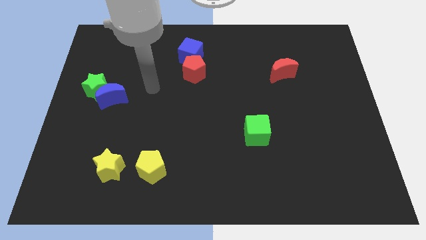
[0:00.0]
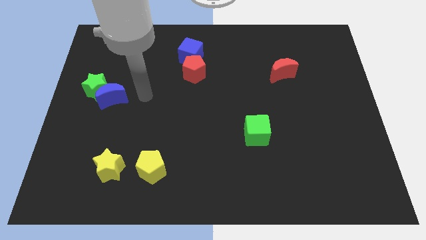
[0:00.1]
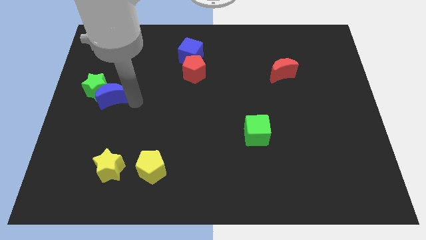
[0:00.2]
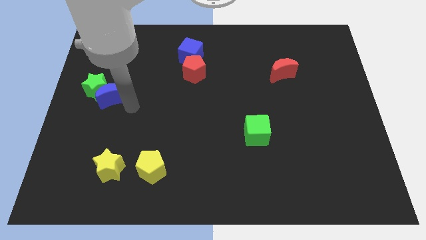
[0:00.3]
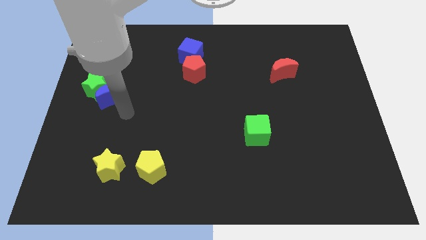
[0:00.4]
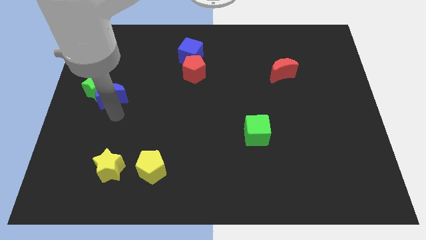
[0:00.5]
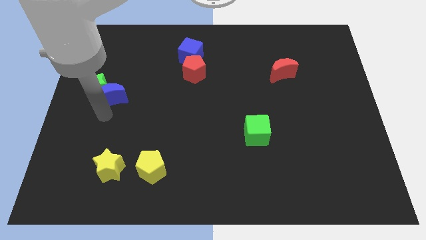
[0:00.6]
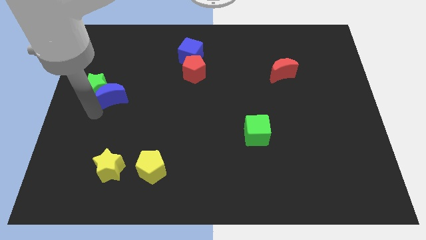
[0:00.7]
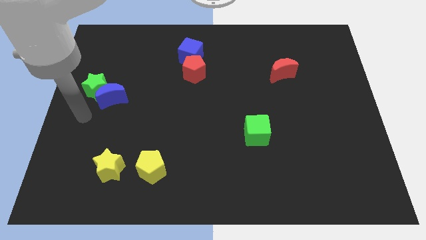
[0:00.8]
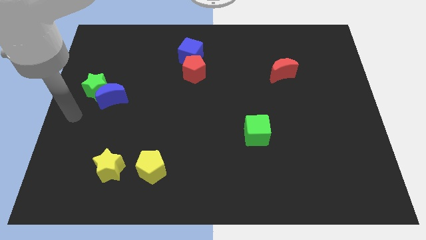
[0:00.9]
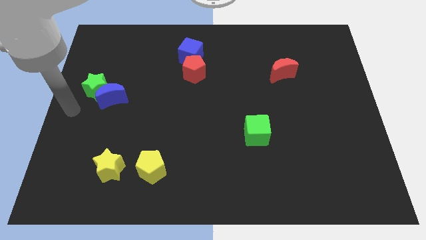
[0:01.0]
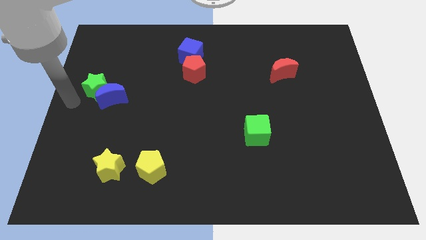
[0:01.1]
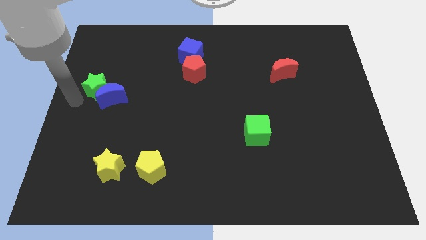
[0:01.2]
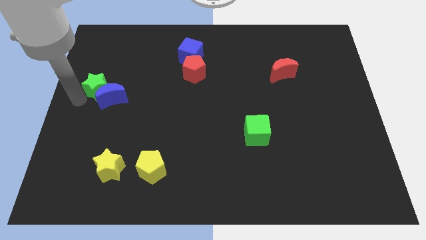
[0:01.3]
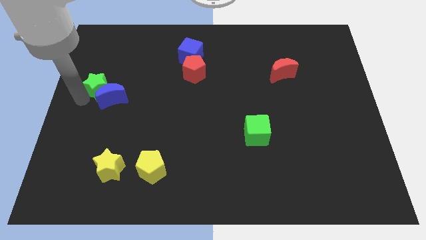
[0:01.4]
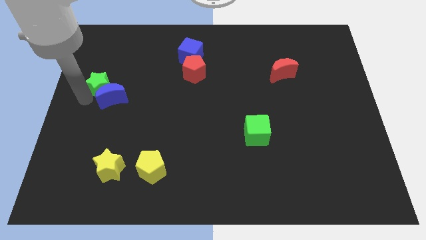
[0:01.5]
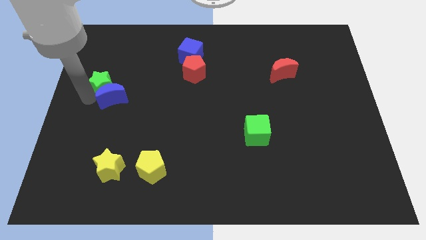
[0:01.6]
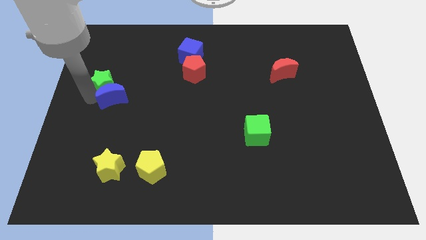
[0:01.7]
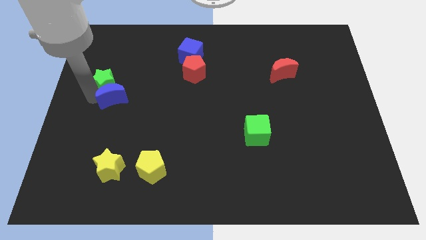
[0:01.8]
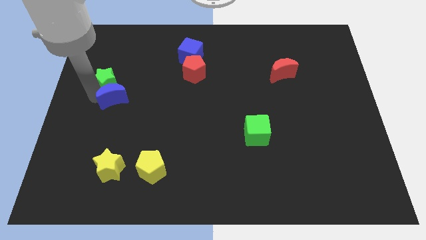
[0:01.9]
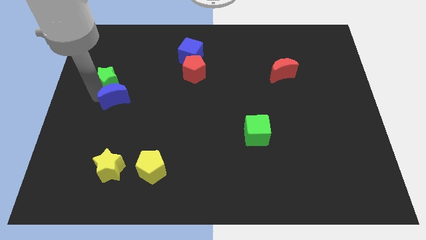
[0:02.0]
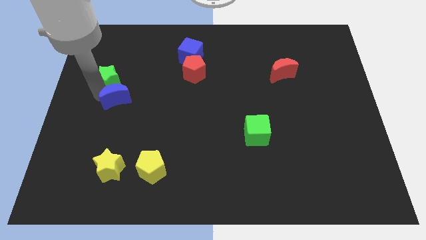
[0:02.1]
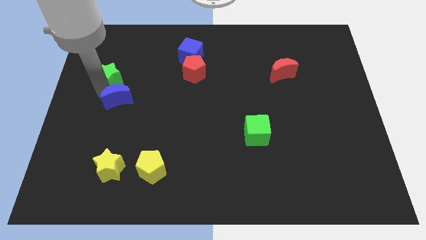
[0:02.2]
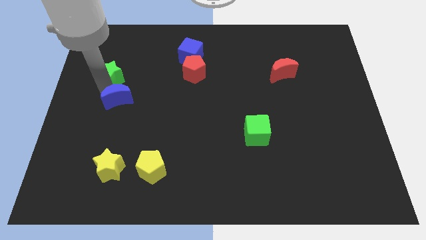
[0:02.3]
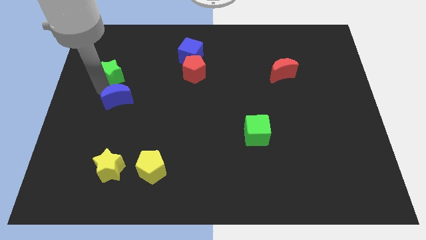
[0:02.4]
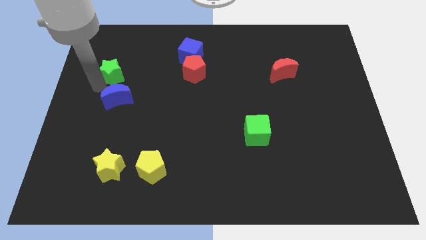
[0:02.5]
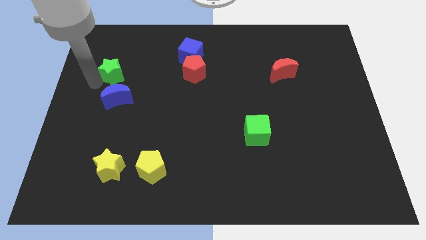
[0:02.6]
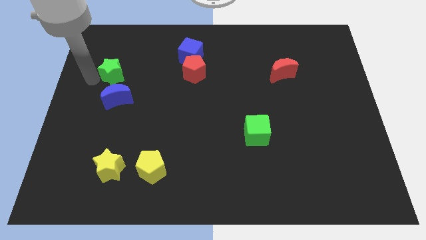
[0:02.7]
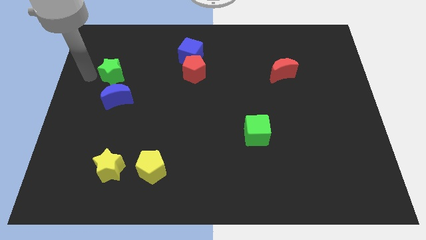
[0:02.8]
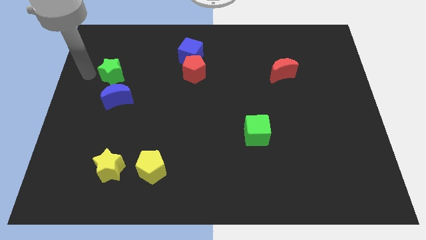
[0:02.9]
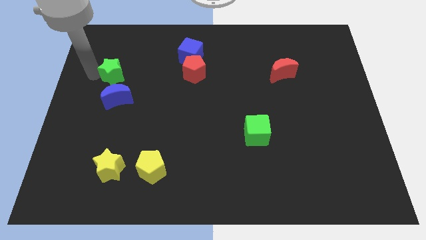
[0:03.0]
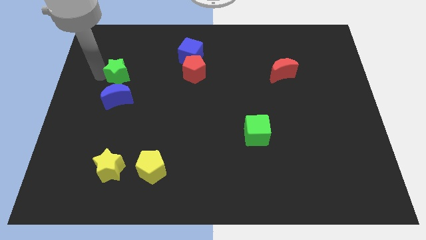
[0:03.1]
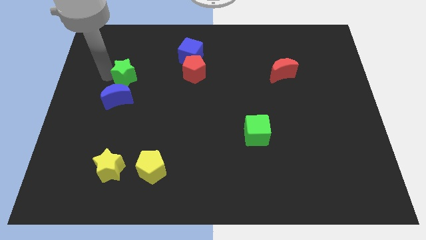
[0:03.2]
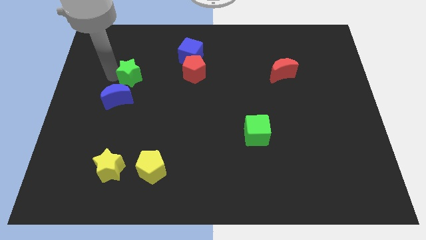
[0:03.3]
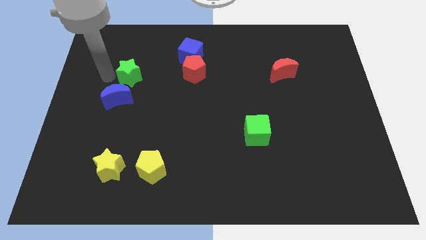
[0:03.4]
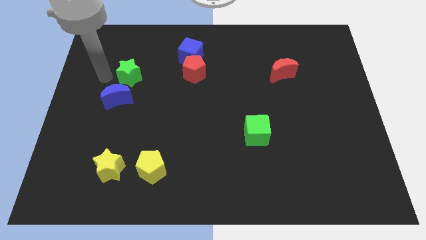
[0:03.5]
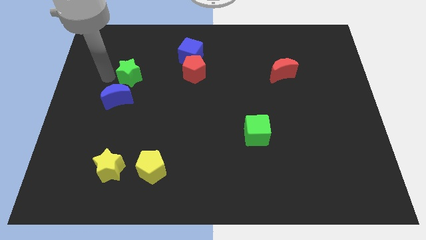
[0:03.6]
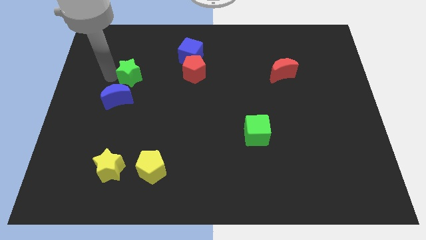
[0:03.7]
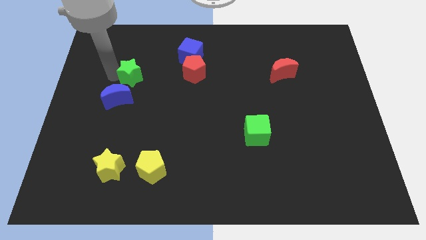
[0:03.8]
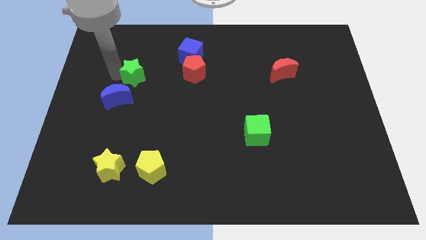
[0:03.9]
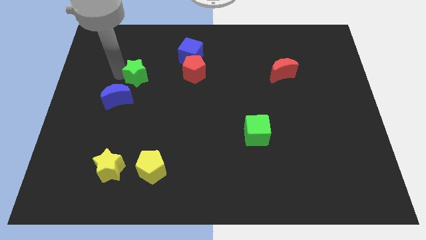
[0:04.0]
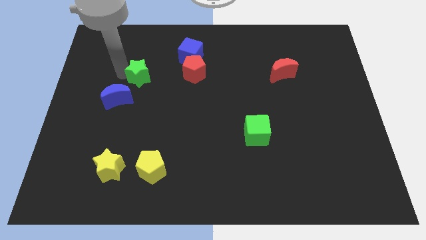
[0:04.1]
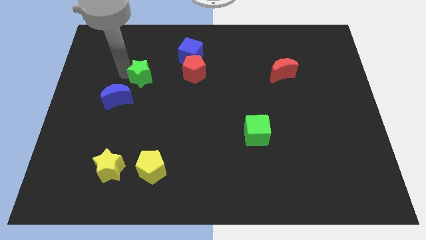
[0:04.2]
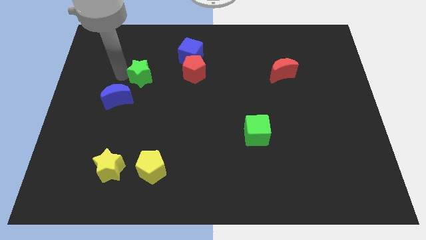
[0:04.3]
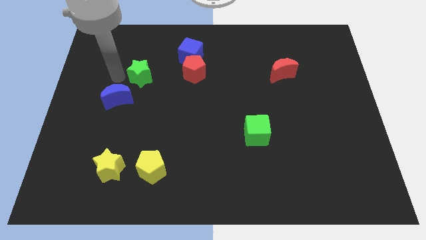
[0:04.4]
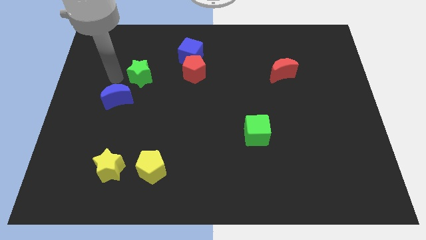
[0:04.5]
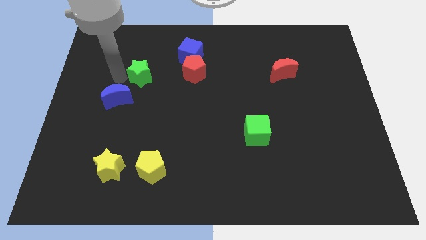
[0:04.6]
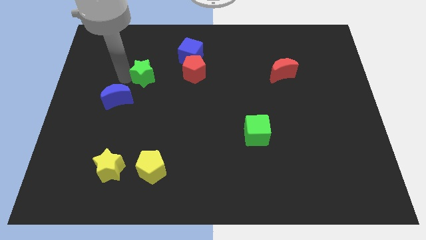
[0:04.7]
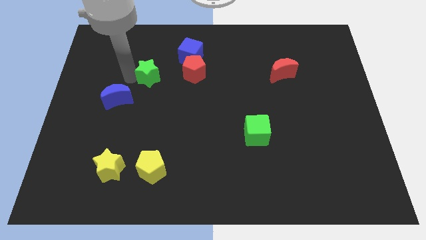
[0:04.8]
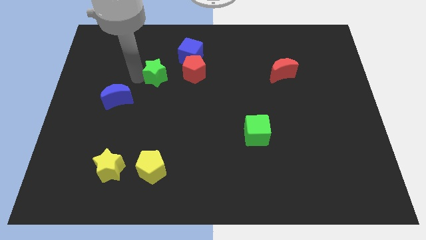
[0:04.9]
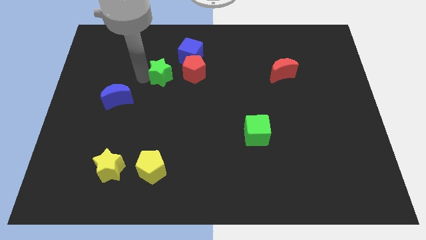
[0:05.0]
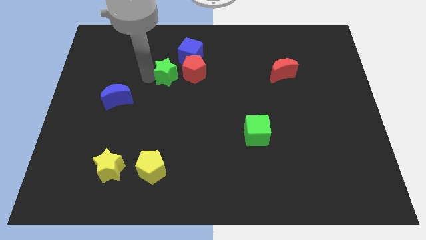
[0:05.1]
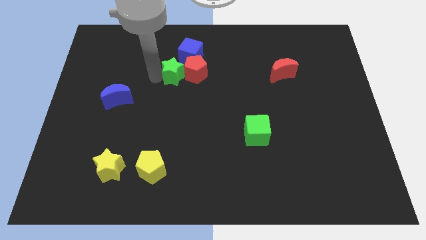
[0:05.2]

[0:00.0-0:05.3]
move the green star next to the red pentagon

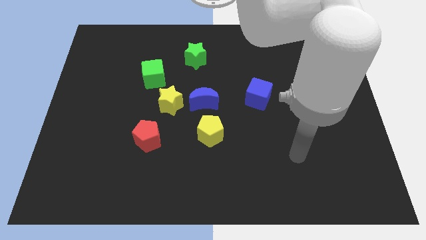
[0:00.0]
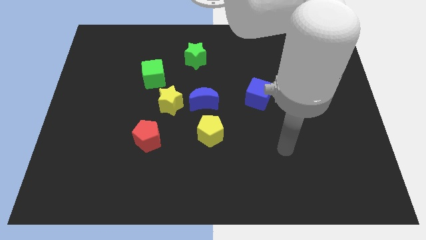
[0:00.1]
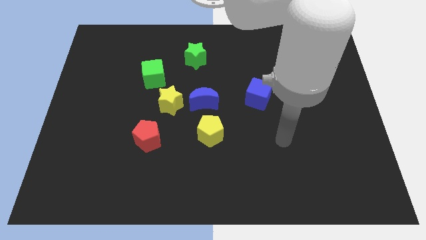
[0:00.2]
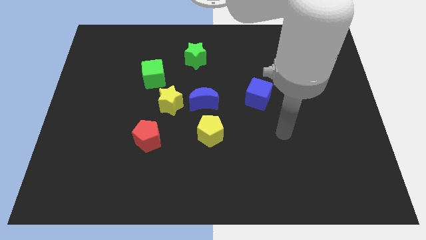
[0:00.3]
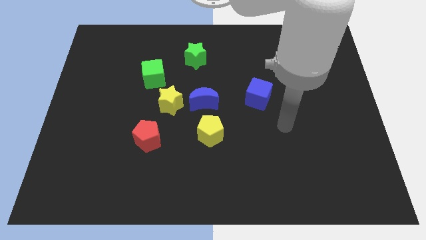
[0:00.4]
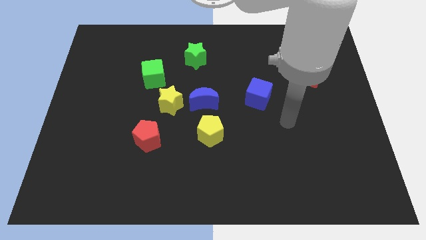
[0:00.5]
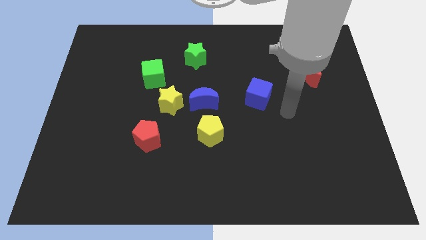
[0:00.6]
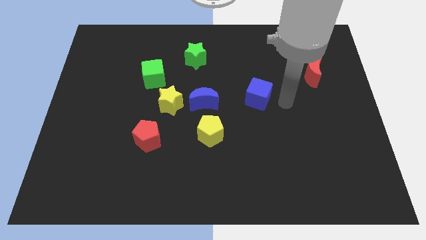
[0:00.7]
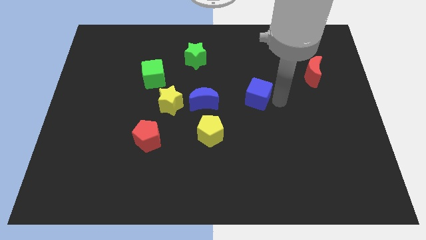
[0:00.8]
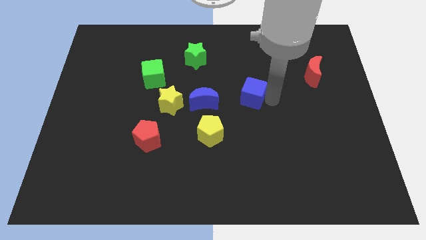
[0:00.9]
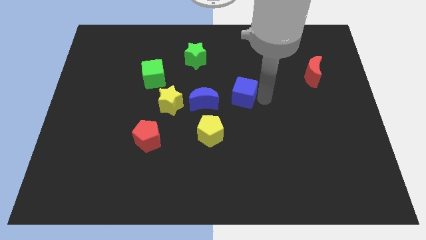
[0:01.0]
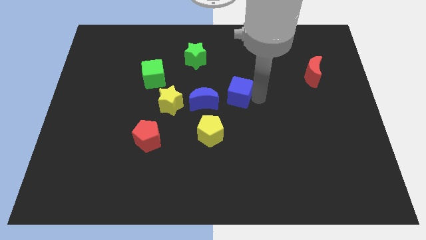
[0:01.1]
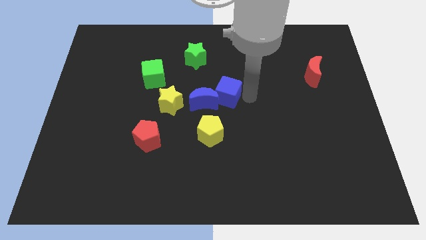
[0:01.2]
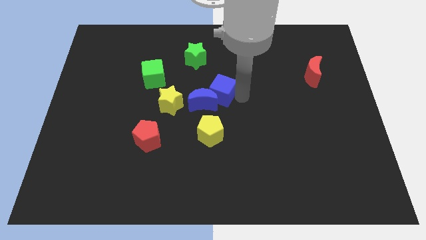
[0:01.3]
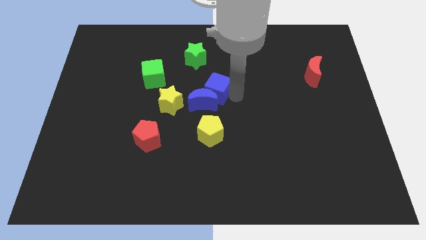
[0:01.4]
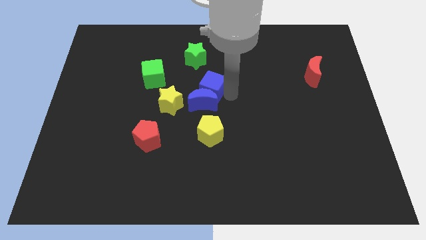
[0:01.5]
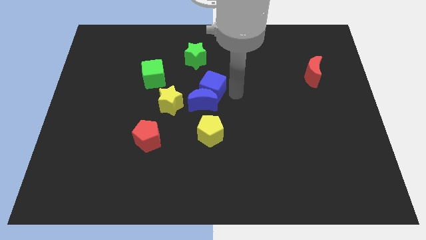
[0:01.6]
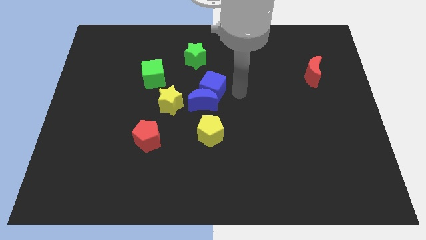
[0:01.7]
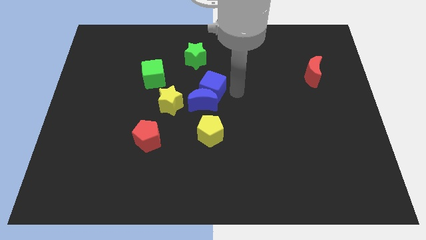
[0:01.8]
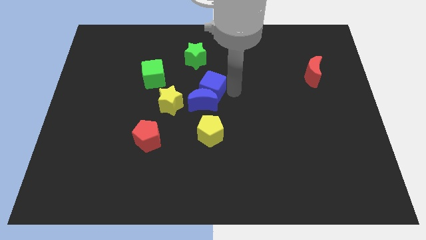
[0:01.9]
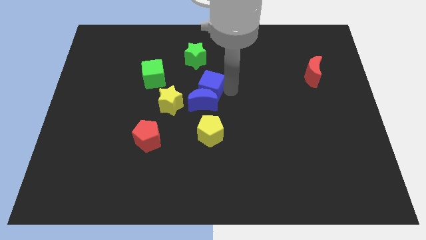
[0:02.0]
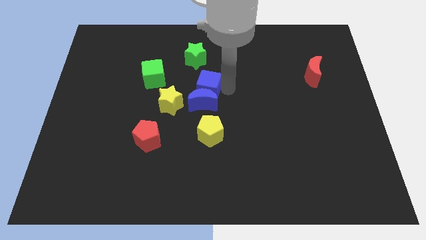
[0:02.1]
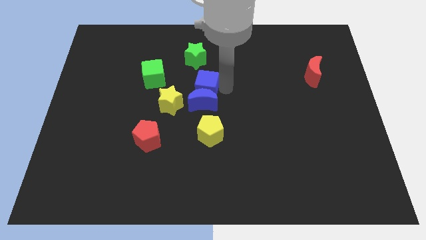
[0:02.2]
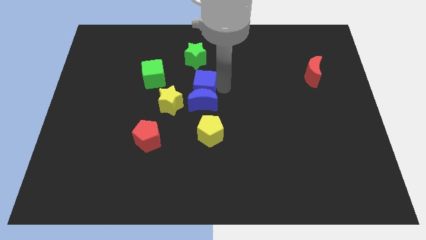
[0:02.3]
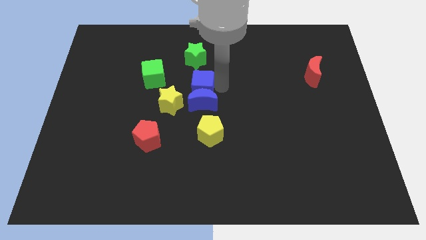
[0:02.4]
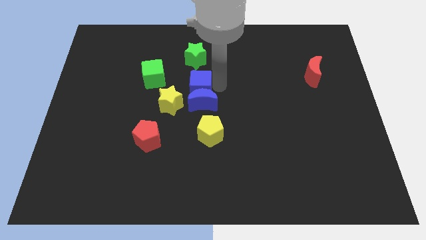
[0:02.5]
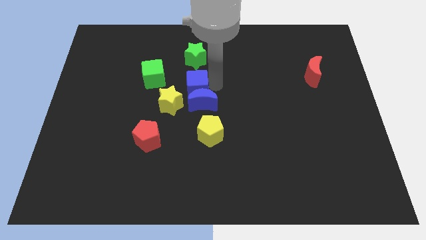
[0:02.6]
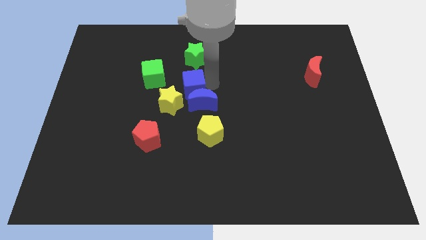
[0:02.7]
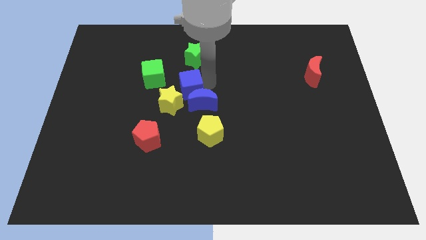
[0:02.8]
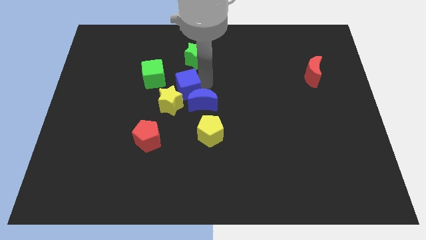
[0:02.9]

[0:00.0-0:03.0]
put the blue cube close to the yellow star
